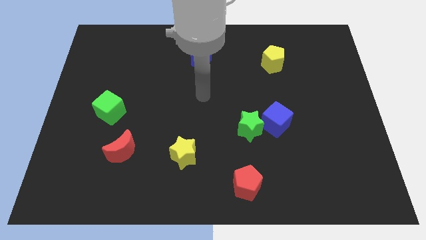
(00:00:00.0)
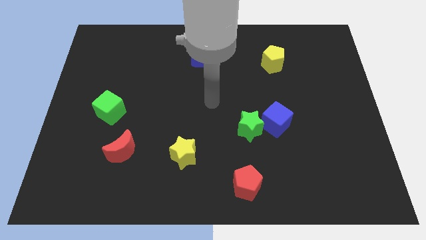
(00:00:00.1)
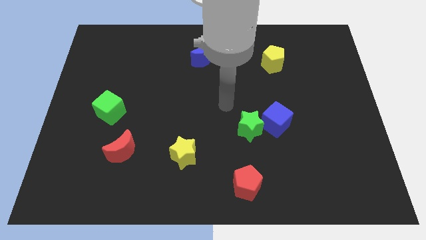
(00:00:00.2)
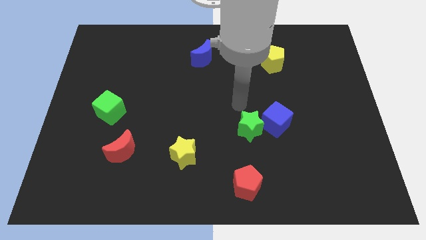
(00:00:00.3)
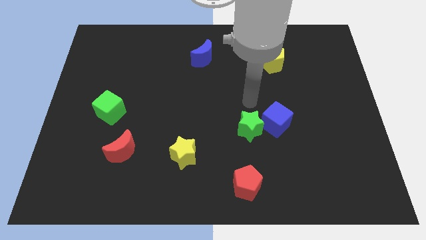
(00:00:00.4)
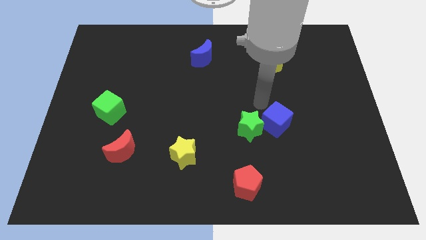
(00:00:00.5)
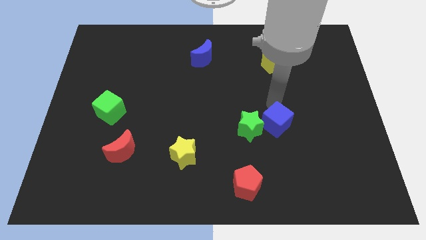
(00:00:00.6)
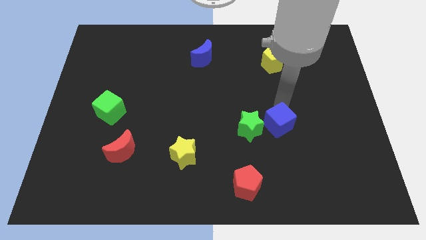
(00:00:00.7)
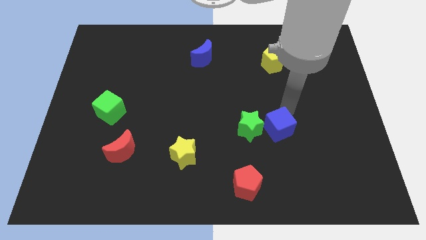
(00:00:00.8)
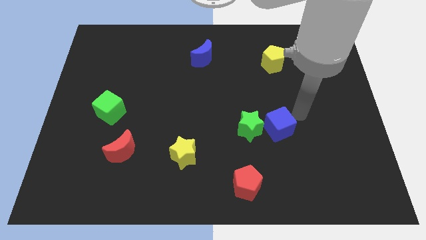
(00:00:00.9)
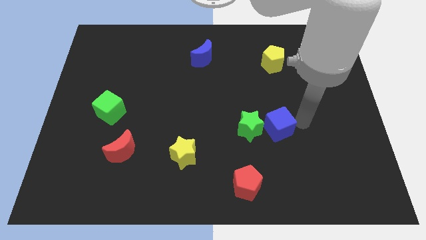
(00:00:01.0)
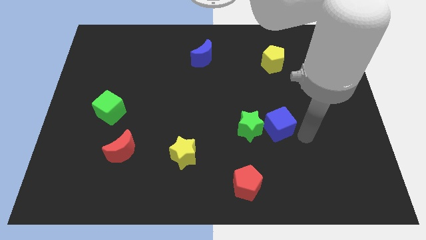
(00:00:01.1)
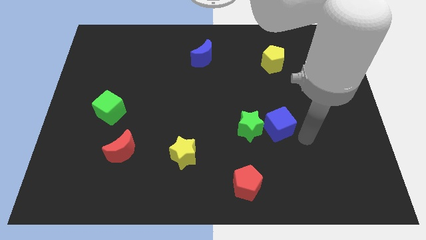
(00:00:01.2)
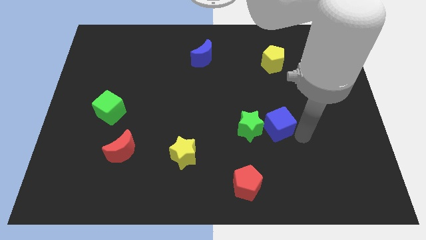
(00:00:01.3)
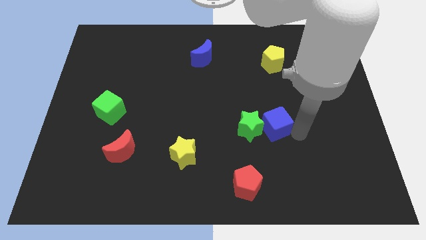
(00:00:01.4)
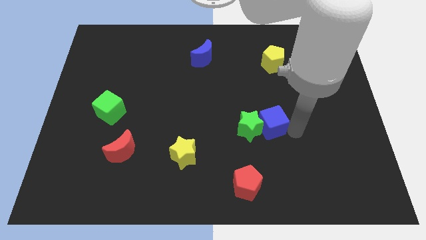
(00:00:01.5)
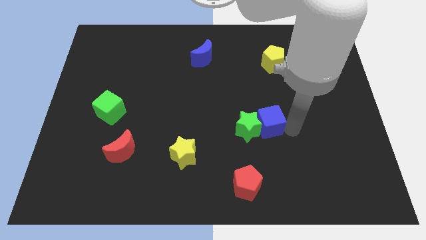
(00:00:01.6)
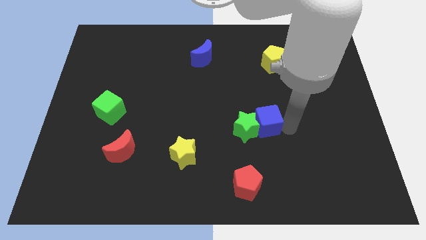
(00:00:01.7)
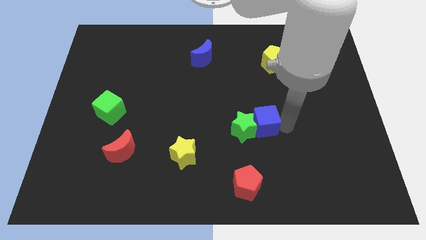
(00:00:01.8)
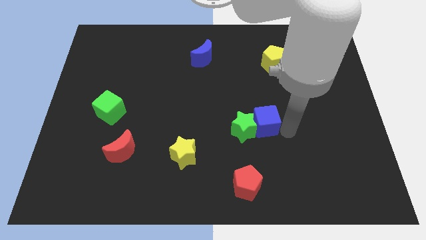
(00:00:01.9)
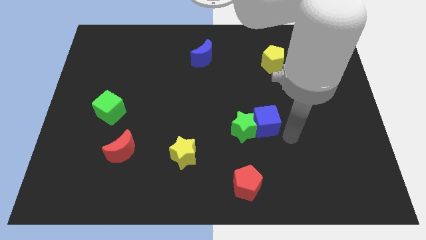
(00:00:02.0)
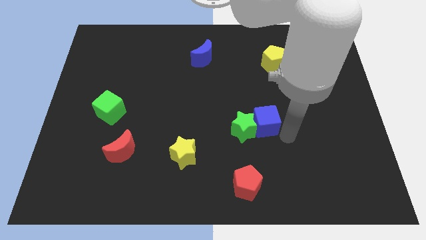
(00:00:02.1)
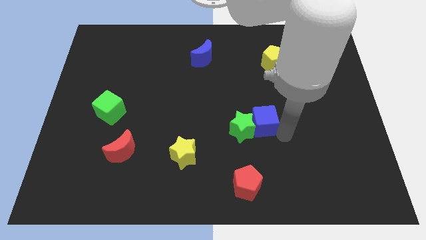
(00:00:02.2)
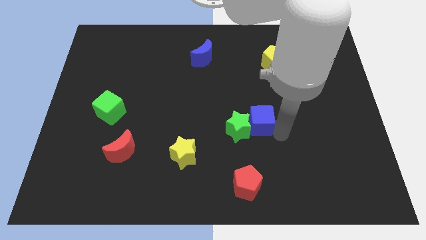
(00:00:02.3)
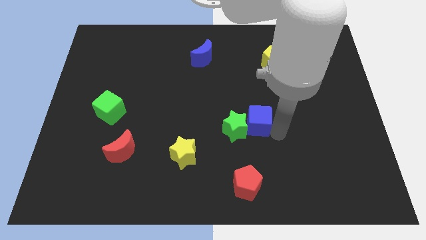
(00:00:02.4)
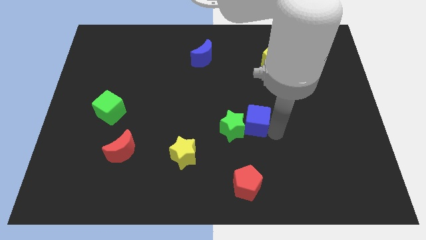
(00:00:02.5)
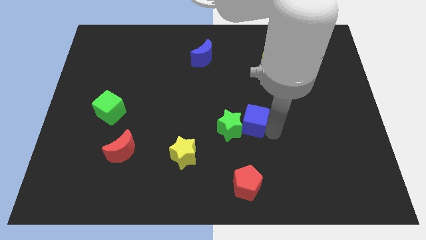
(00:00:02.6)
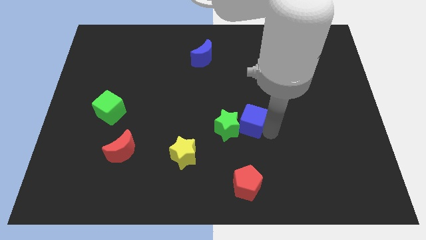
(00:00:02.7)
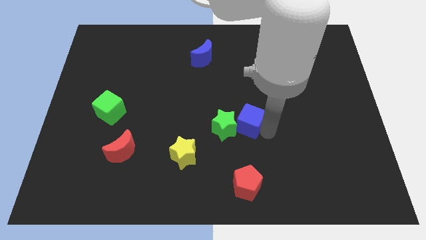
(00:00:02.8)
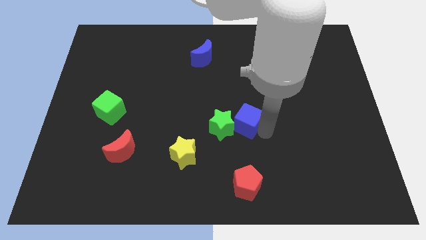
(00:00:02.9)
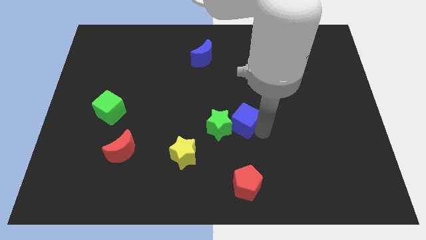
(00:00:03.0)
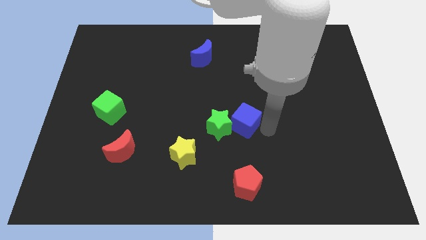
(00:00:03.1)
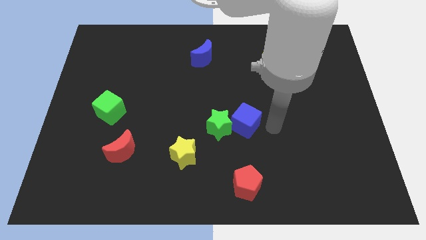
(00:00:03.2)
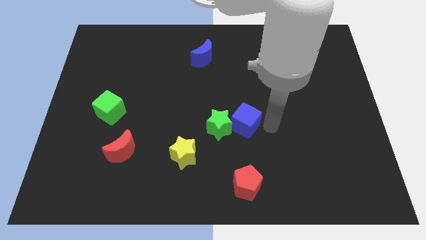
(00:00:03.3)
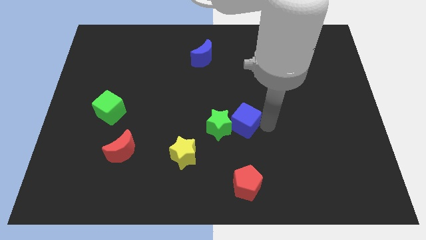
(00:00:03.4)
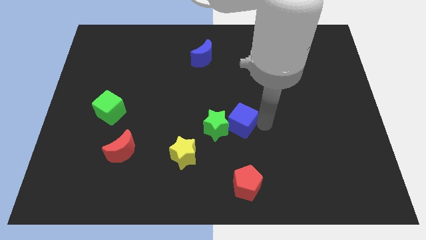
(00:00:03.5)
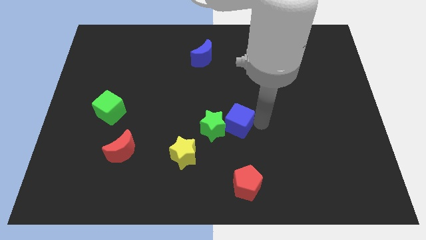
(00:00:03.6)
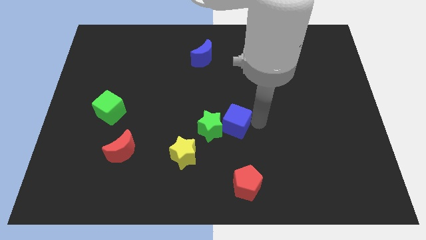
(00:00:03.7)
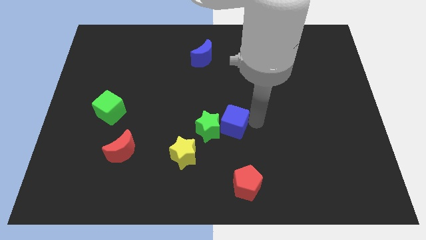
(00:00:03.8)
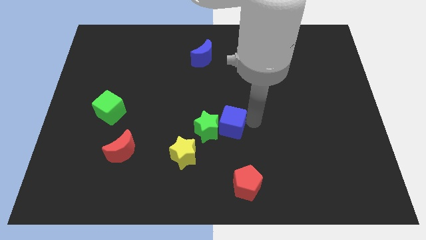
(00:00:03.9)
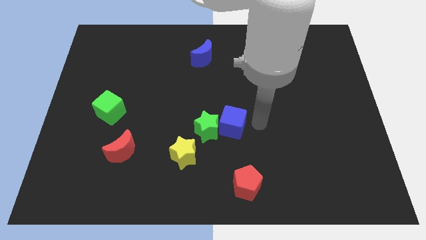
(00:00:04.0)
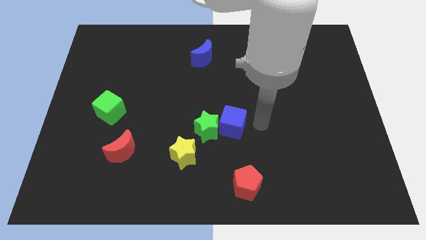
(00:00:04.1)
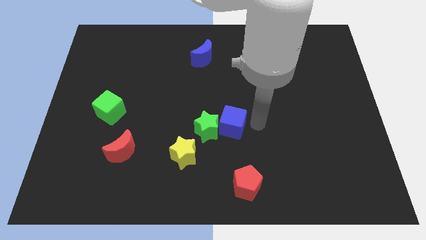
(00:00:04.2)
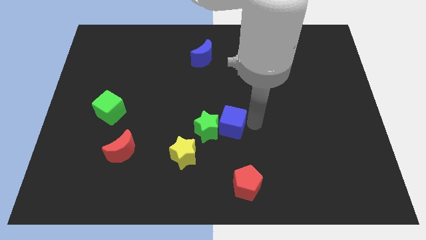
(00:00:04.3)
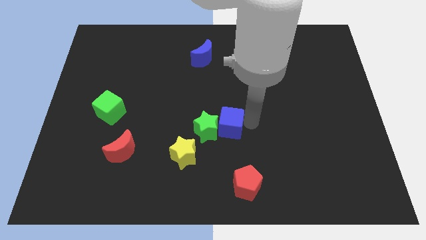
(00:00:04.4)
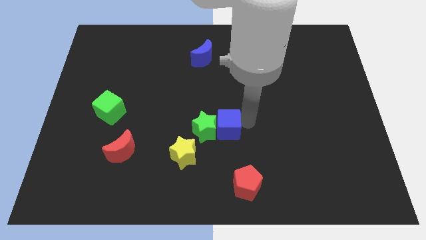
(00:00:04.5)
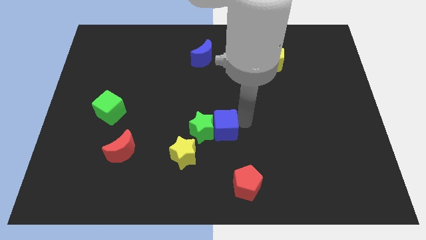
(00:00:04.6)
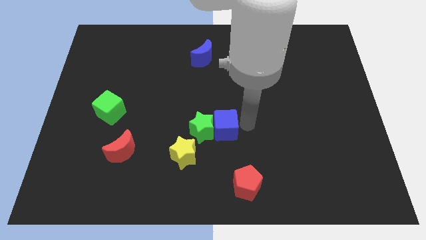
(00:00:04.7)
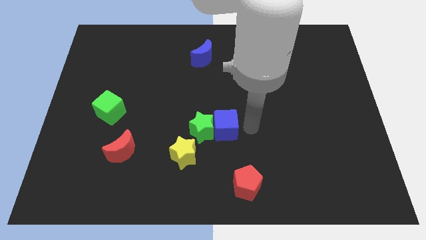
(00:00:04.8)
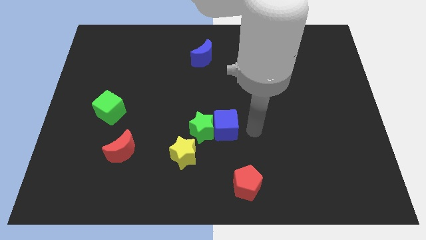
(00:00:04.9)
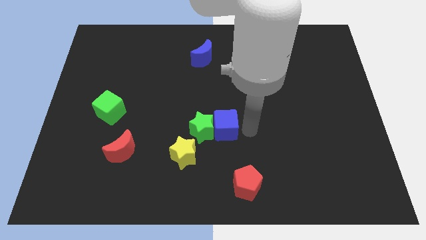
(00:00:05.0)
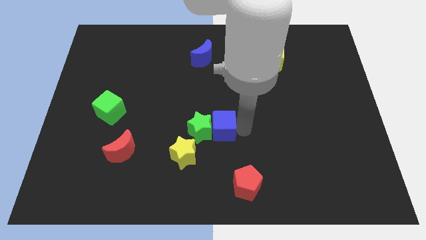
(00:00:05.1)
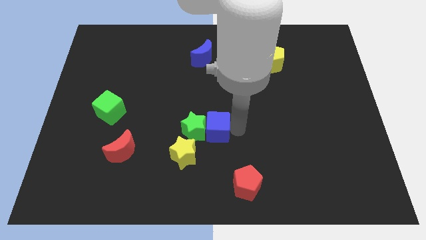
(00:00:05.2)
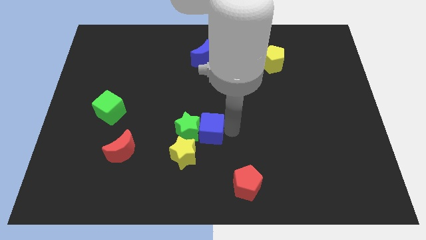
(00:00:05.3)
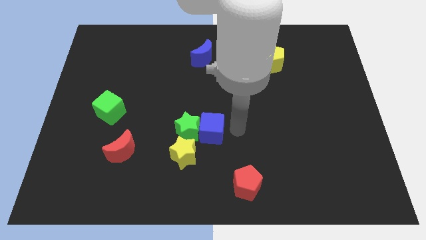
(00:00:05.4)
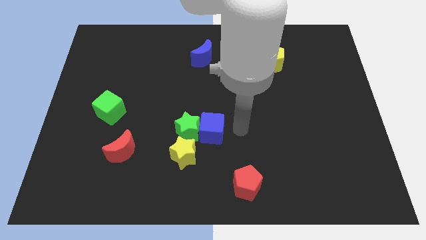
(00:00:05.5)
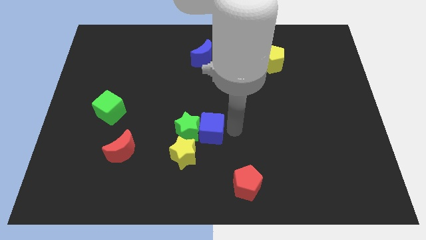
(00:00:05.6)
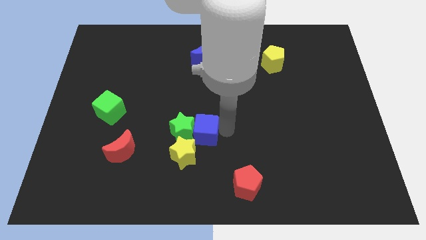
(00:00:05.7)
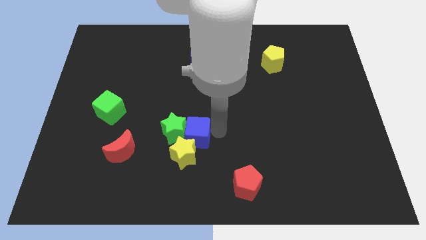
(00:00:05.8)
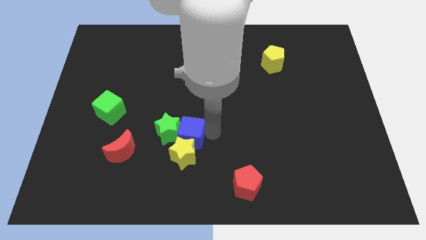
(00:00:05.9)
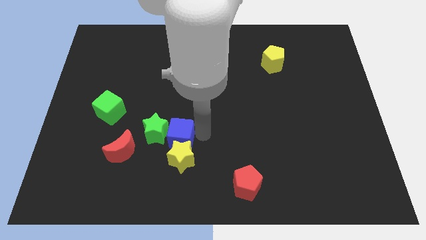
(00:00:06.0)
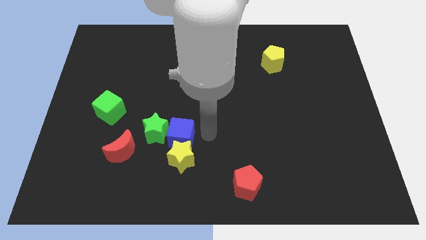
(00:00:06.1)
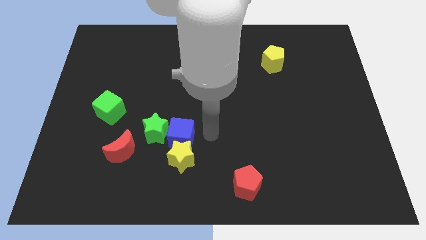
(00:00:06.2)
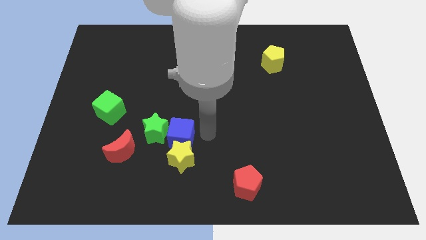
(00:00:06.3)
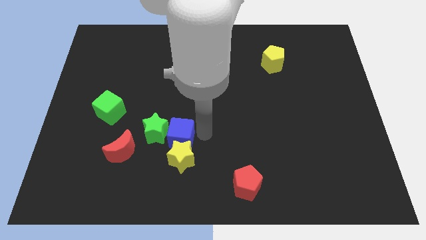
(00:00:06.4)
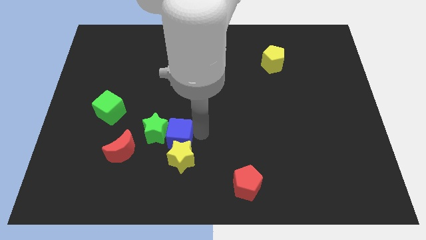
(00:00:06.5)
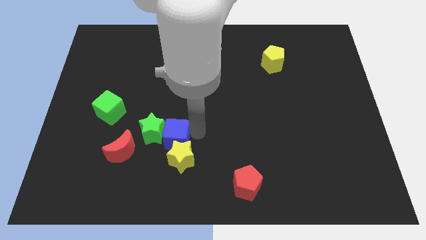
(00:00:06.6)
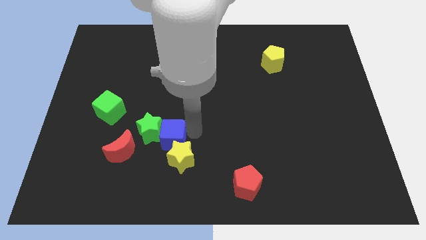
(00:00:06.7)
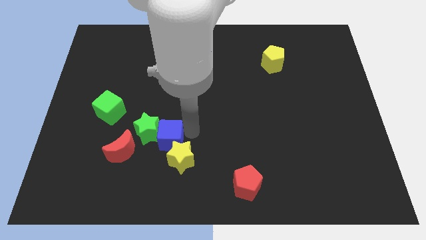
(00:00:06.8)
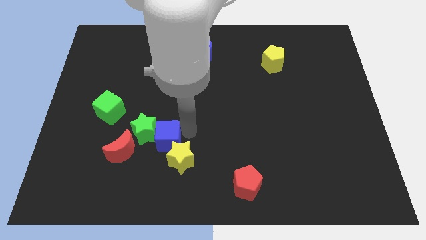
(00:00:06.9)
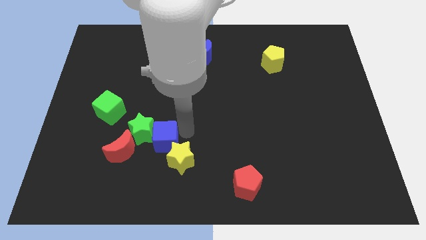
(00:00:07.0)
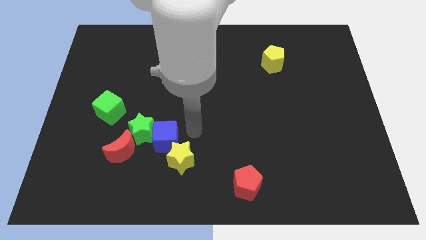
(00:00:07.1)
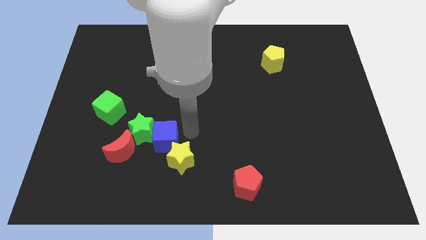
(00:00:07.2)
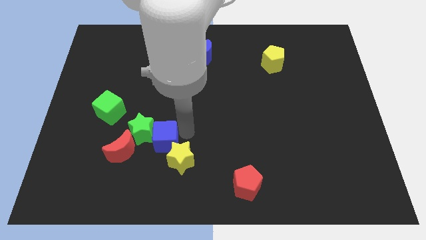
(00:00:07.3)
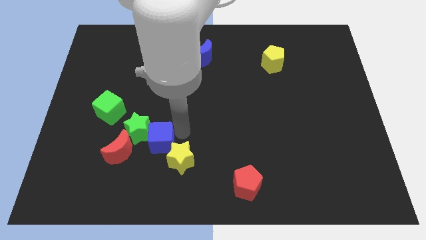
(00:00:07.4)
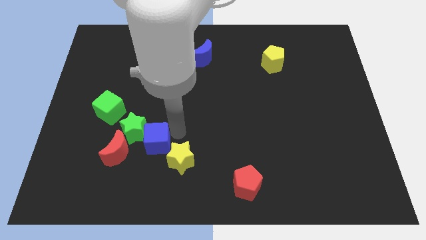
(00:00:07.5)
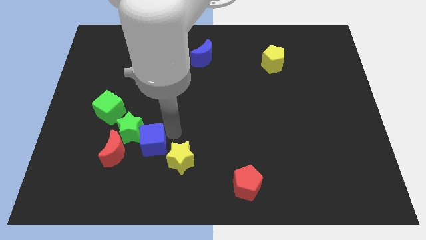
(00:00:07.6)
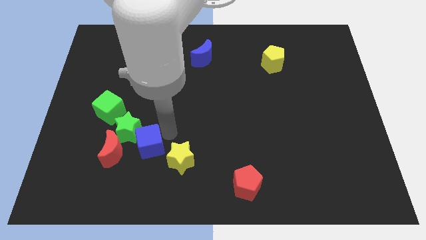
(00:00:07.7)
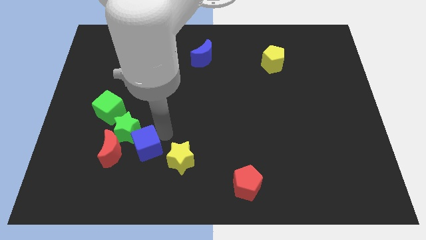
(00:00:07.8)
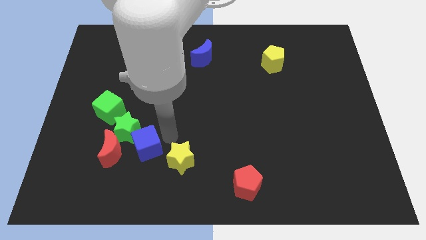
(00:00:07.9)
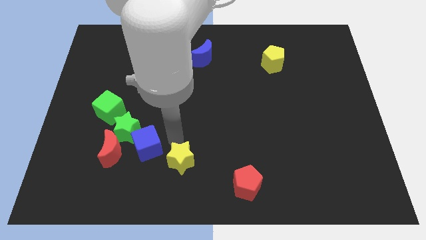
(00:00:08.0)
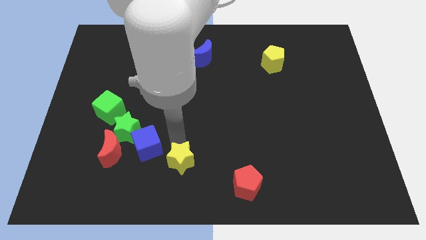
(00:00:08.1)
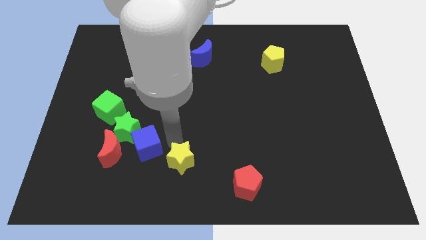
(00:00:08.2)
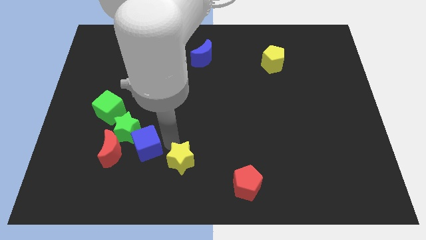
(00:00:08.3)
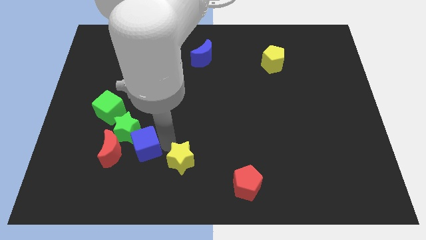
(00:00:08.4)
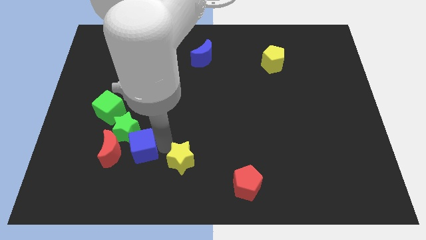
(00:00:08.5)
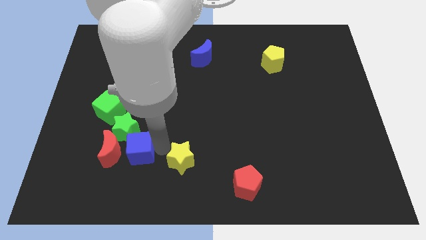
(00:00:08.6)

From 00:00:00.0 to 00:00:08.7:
push the blue cube next to the red moon
